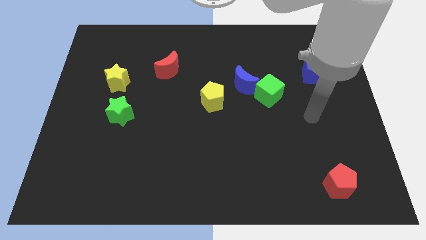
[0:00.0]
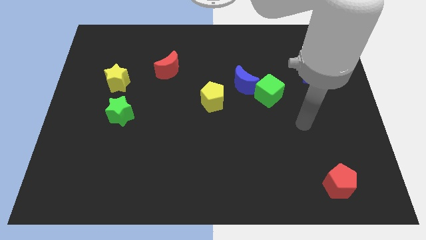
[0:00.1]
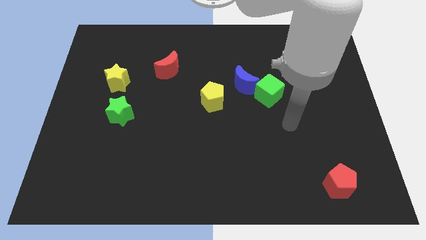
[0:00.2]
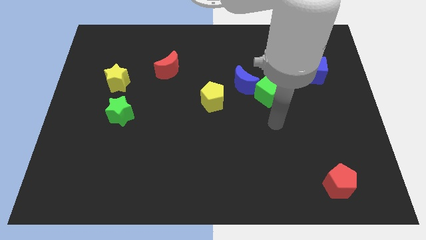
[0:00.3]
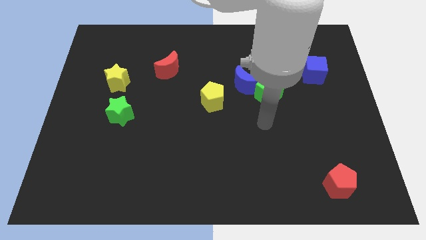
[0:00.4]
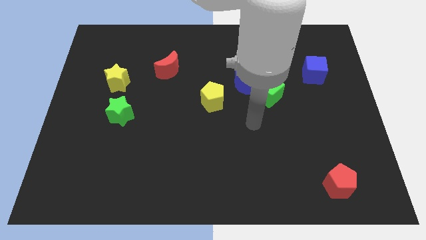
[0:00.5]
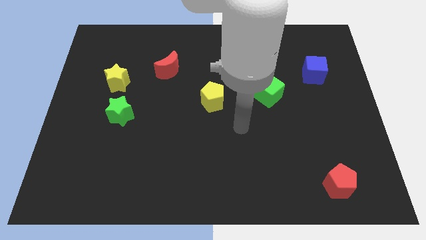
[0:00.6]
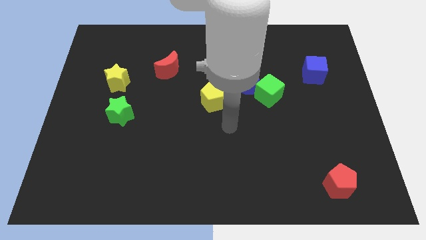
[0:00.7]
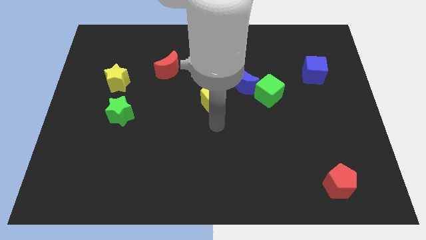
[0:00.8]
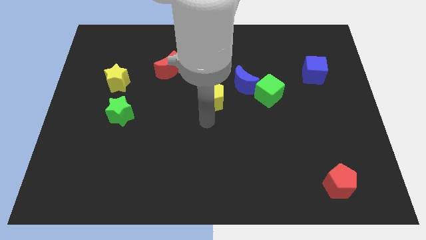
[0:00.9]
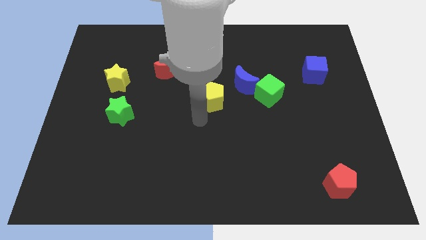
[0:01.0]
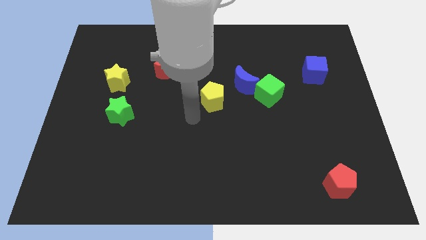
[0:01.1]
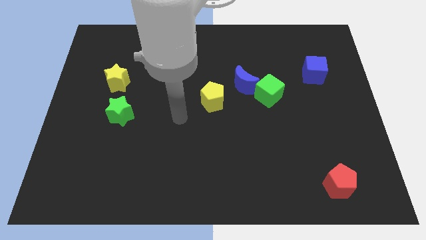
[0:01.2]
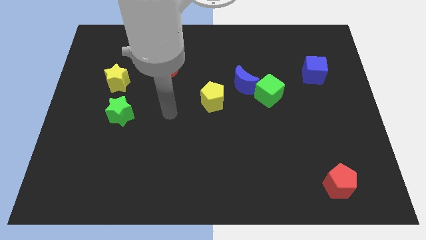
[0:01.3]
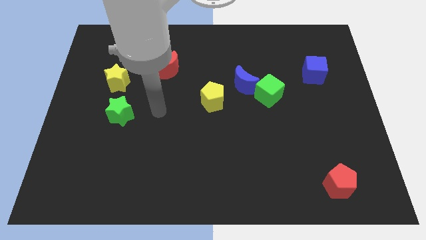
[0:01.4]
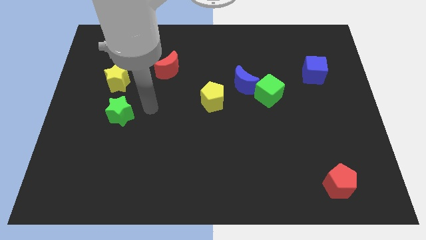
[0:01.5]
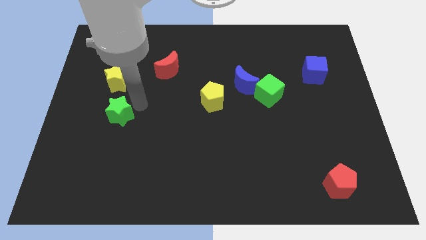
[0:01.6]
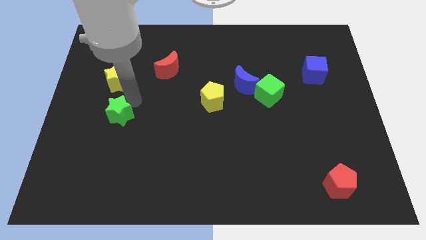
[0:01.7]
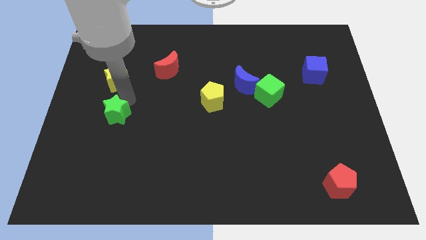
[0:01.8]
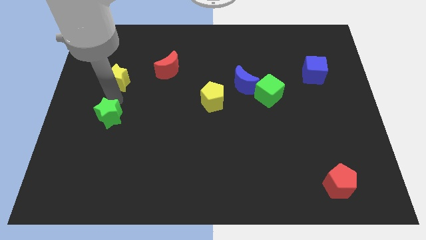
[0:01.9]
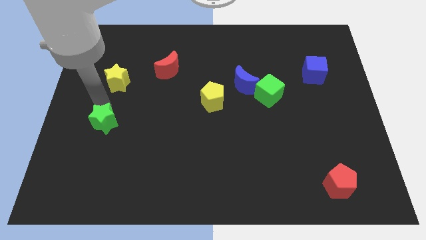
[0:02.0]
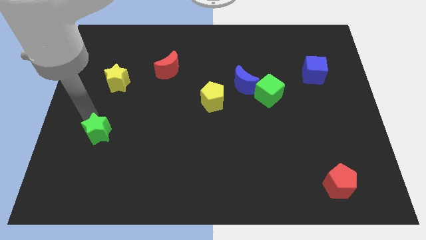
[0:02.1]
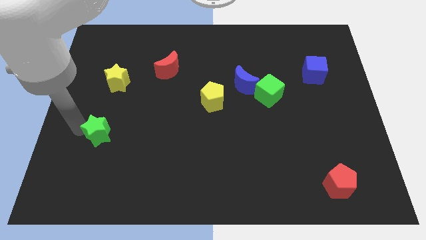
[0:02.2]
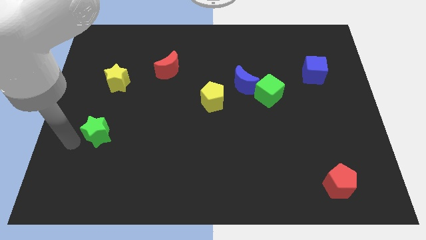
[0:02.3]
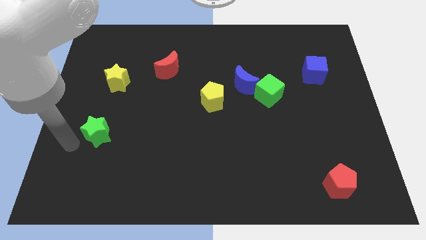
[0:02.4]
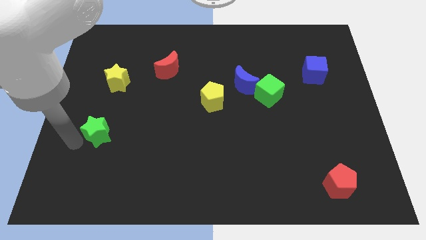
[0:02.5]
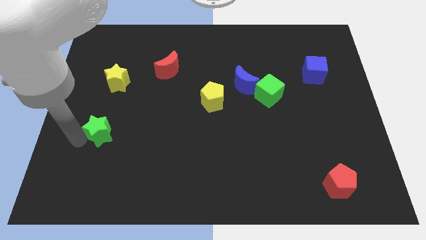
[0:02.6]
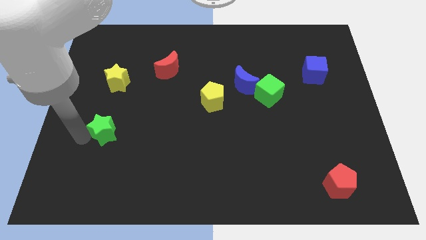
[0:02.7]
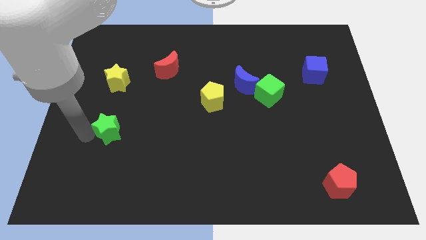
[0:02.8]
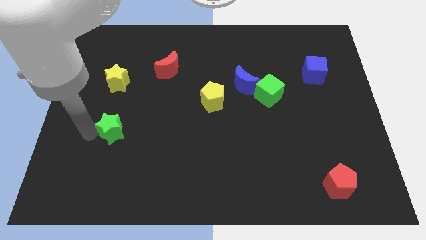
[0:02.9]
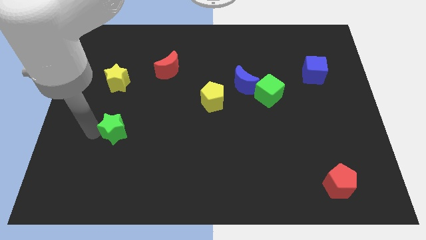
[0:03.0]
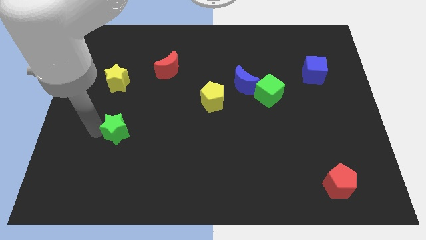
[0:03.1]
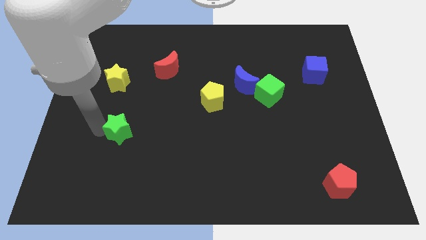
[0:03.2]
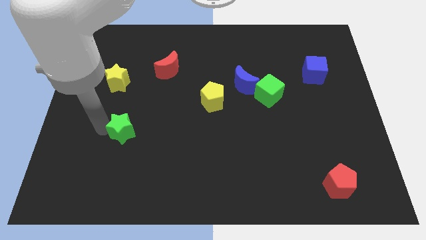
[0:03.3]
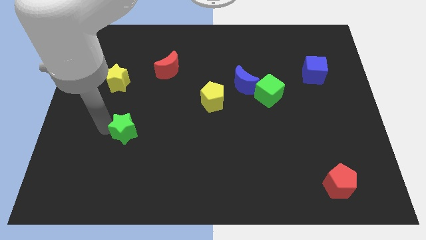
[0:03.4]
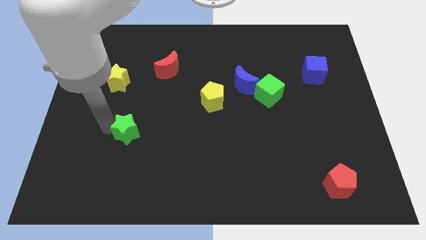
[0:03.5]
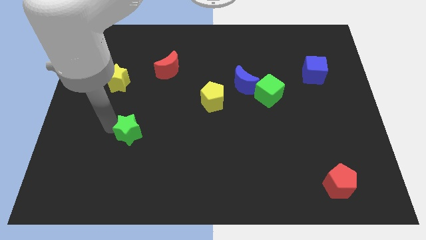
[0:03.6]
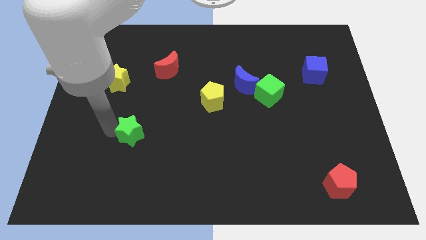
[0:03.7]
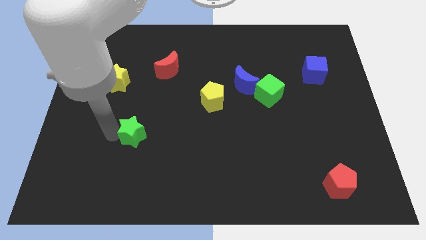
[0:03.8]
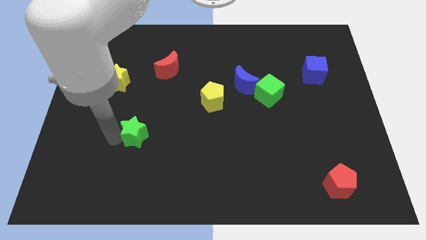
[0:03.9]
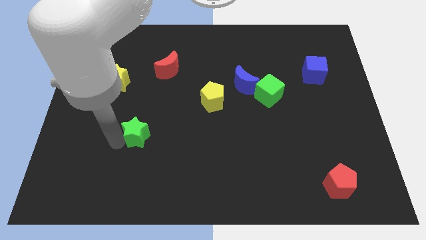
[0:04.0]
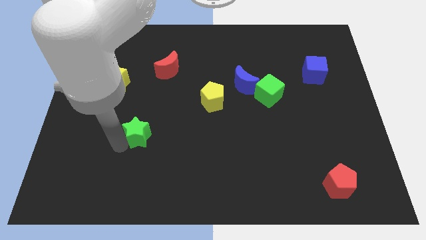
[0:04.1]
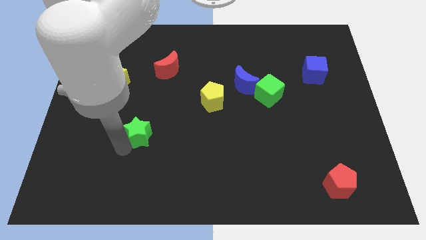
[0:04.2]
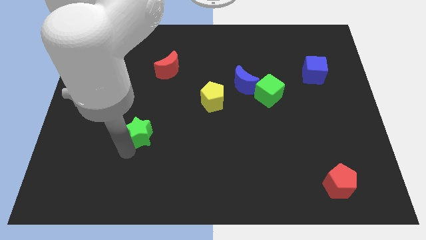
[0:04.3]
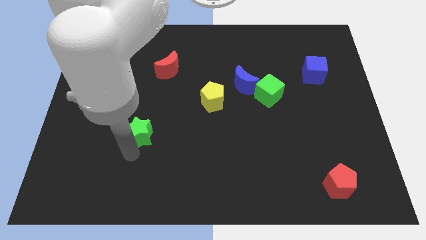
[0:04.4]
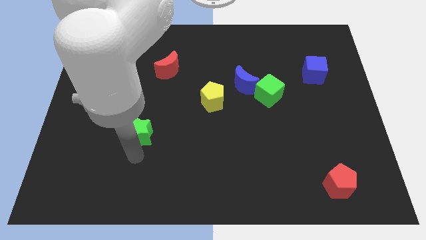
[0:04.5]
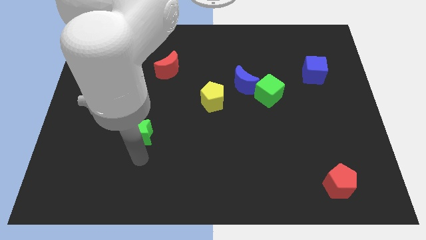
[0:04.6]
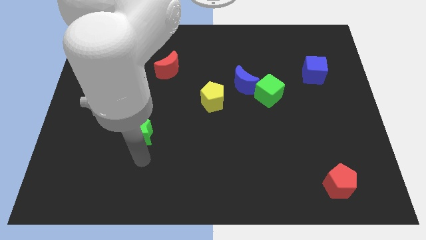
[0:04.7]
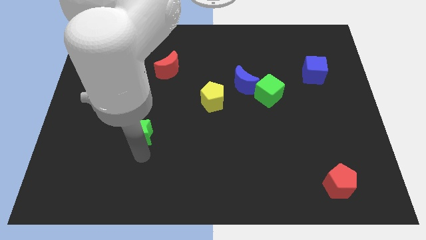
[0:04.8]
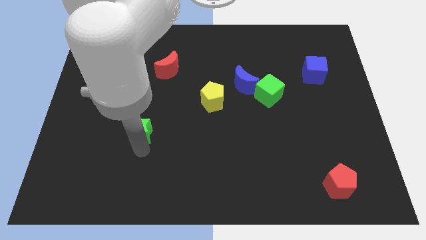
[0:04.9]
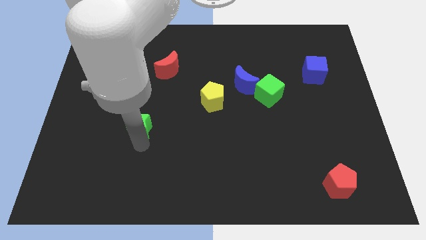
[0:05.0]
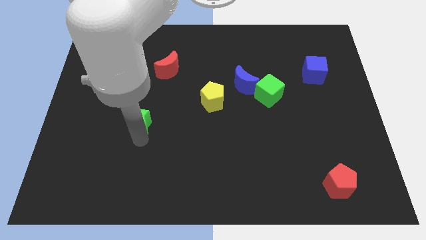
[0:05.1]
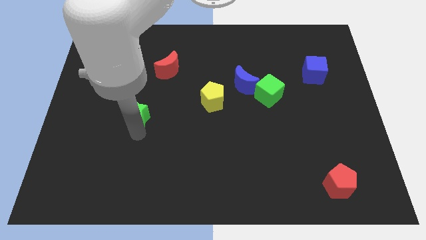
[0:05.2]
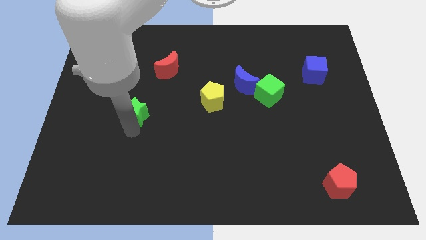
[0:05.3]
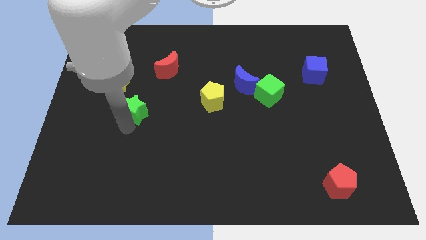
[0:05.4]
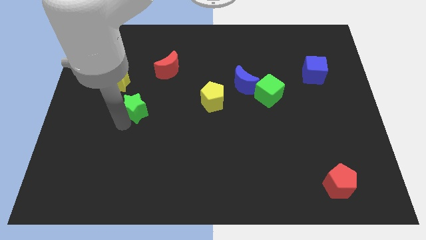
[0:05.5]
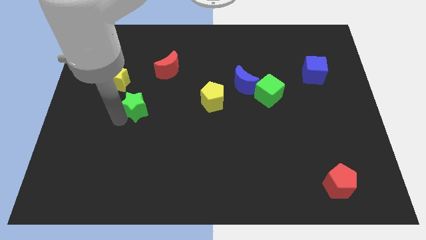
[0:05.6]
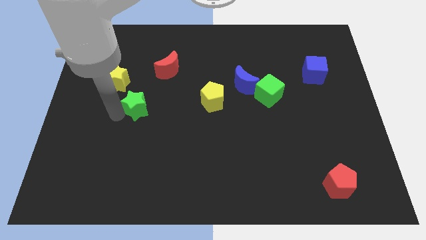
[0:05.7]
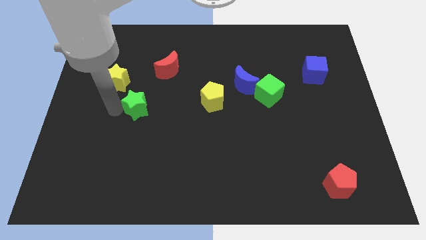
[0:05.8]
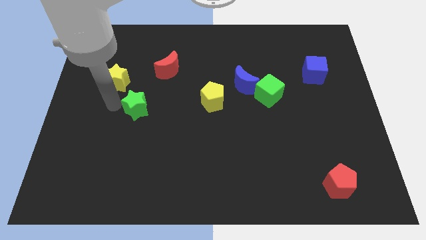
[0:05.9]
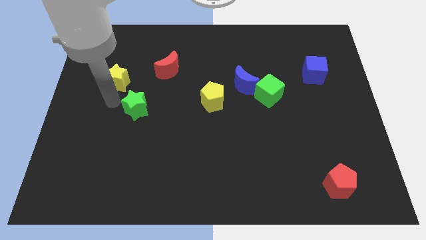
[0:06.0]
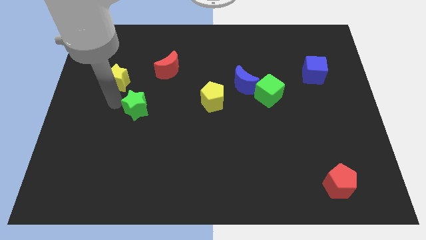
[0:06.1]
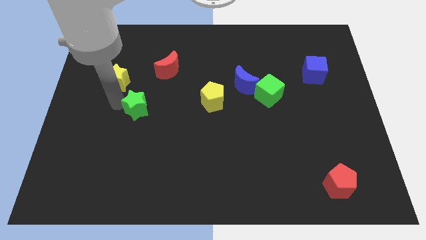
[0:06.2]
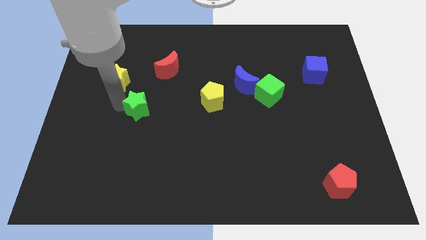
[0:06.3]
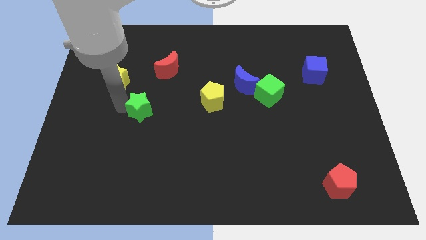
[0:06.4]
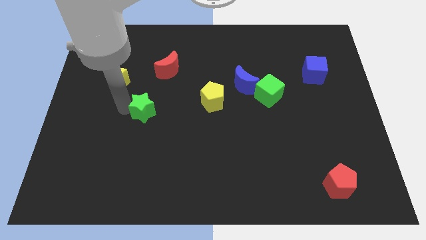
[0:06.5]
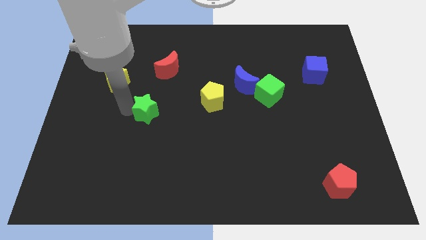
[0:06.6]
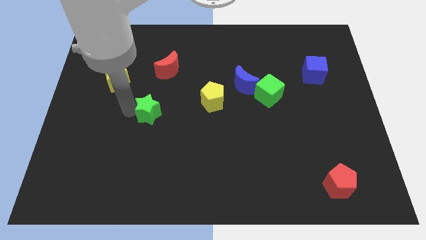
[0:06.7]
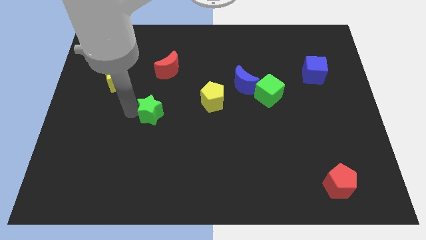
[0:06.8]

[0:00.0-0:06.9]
slightly slide the green star right

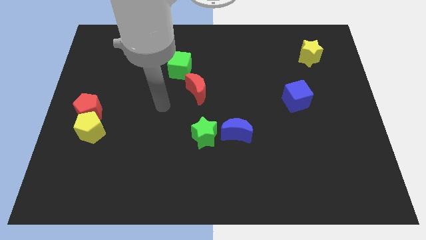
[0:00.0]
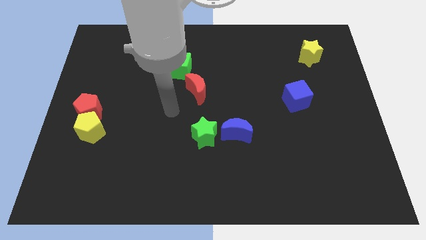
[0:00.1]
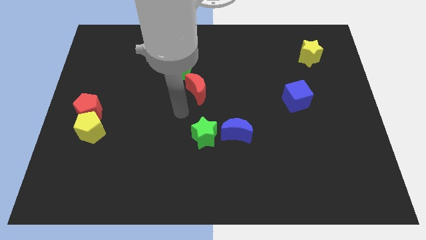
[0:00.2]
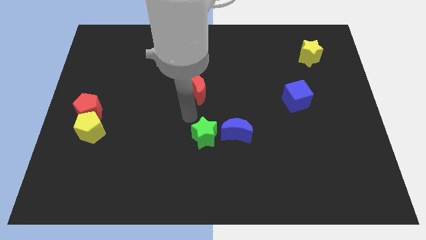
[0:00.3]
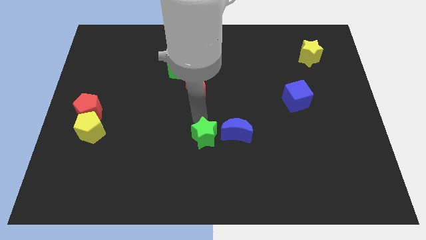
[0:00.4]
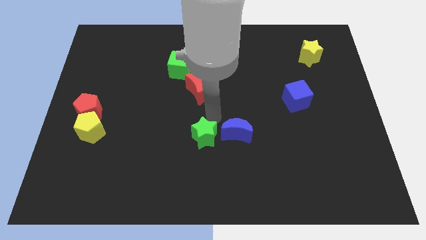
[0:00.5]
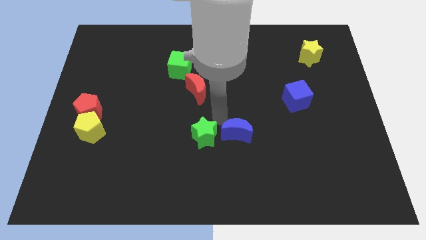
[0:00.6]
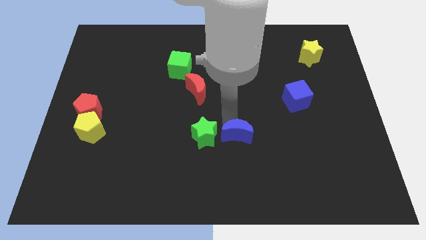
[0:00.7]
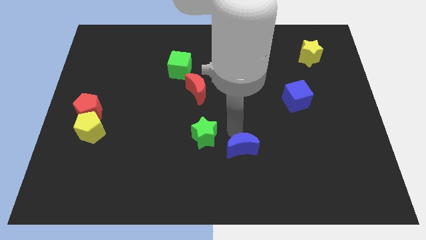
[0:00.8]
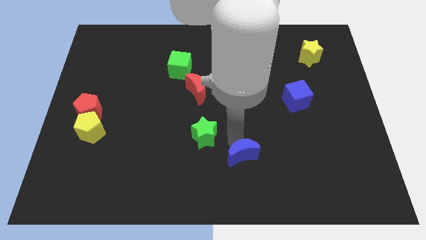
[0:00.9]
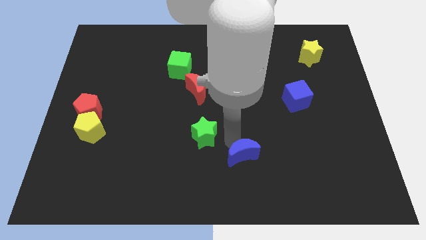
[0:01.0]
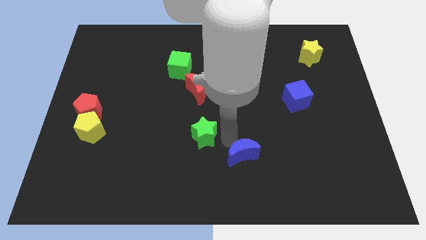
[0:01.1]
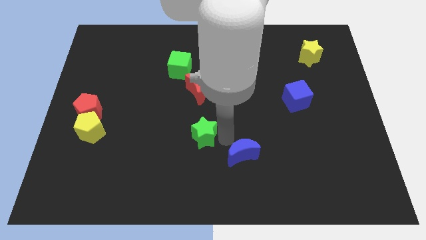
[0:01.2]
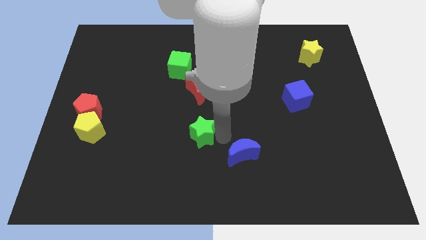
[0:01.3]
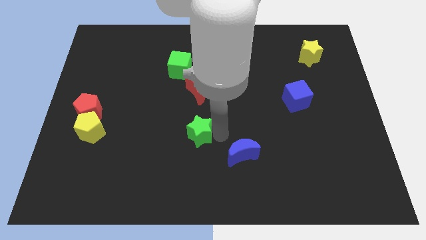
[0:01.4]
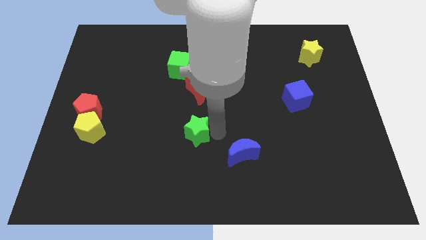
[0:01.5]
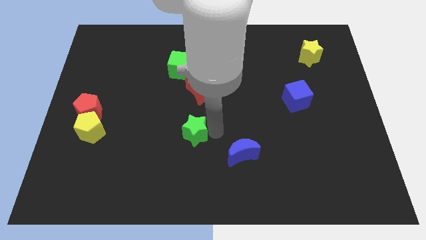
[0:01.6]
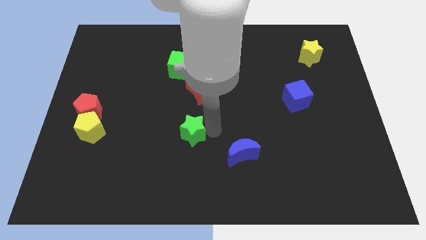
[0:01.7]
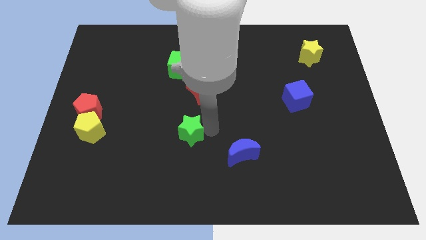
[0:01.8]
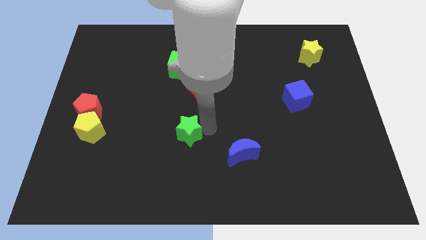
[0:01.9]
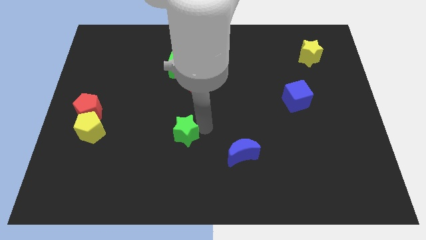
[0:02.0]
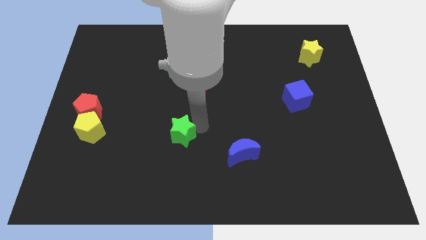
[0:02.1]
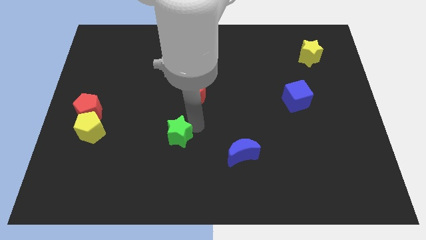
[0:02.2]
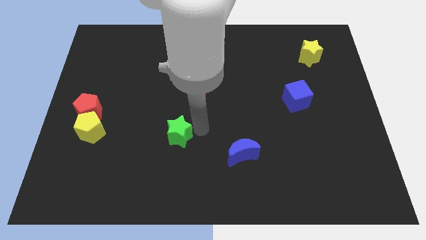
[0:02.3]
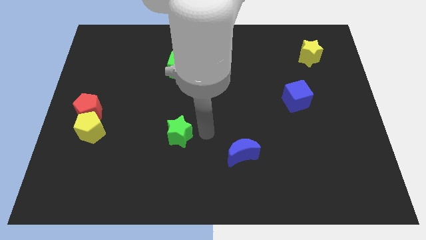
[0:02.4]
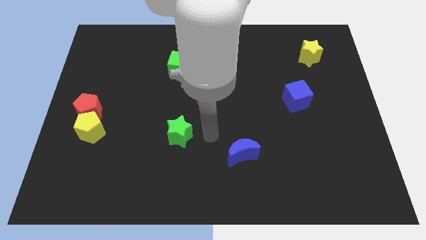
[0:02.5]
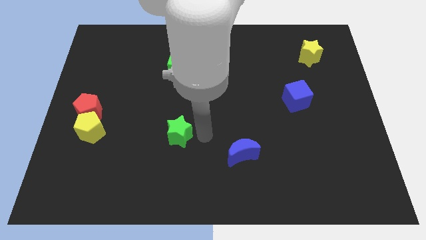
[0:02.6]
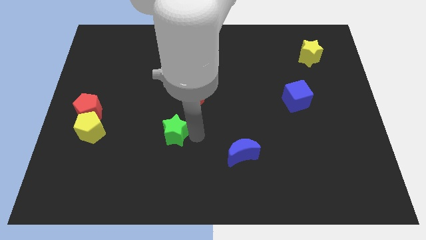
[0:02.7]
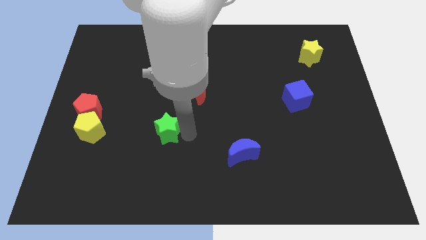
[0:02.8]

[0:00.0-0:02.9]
slightly push the green star left
